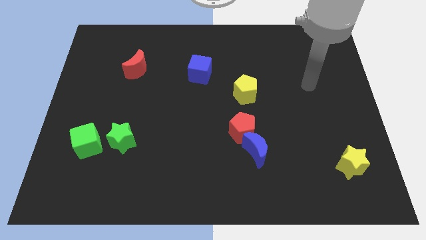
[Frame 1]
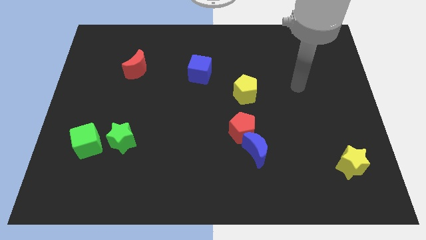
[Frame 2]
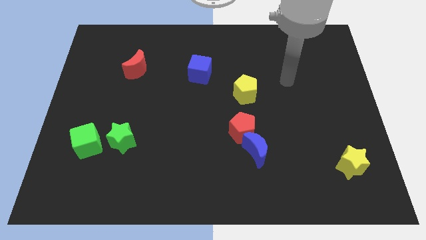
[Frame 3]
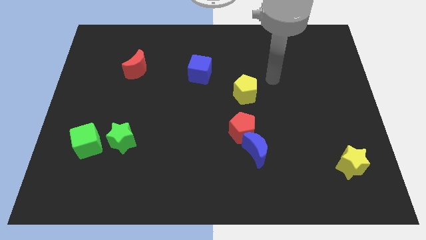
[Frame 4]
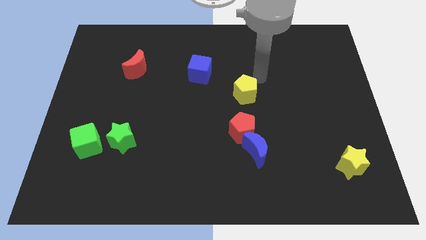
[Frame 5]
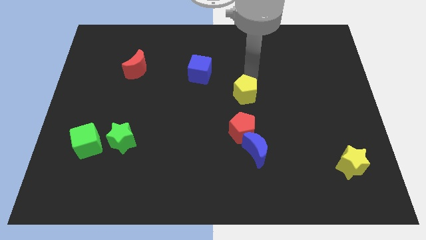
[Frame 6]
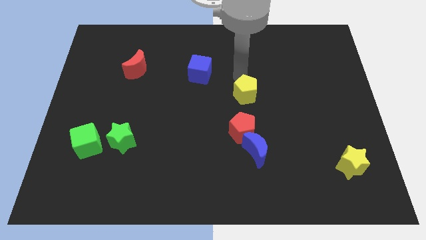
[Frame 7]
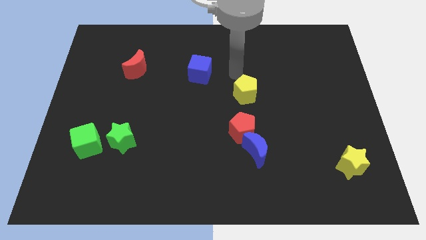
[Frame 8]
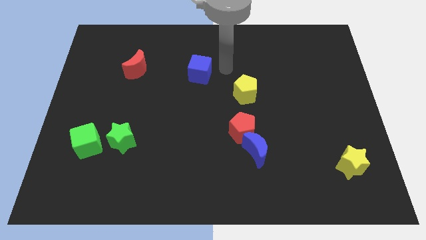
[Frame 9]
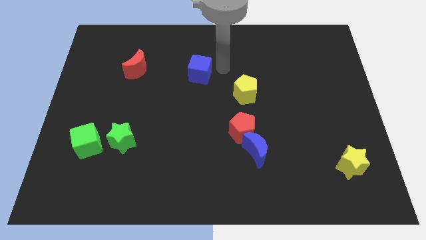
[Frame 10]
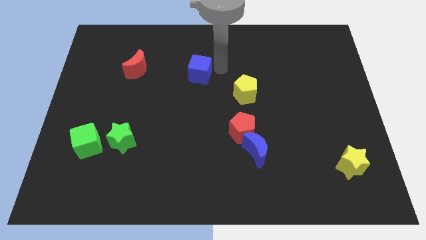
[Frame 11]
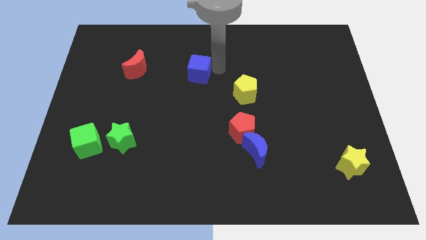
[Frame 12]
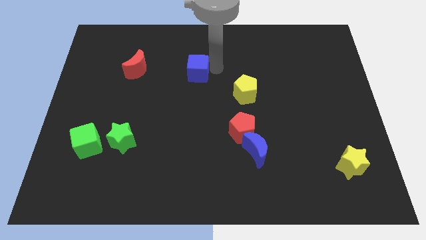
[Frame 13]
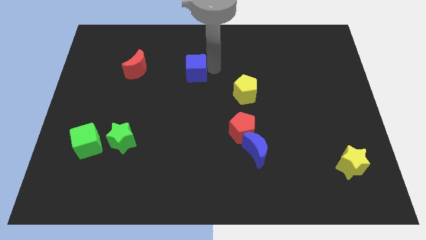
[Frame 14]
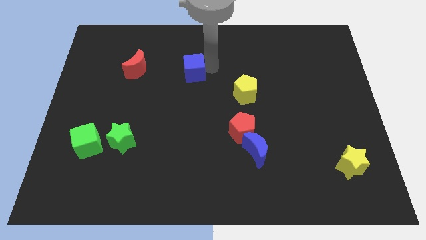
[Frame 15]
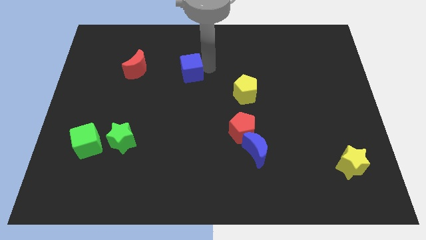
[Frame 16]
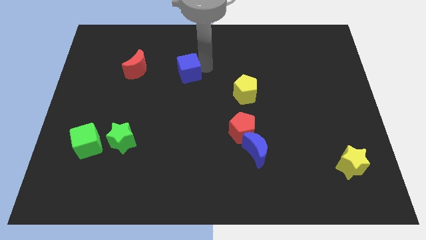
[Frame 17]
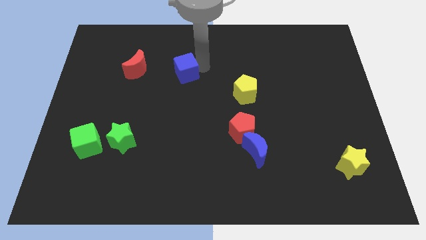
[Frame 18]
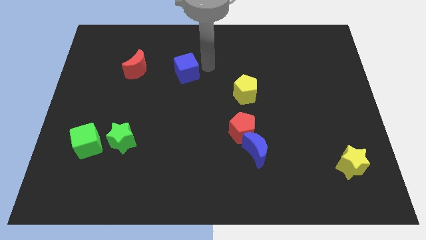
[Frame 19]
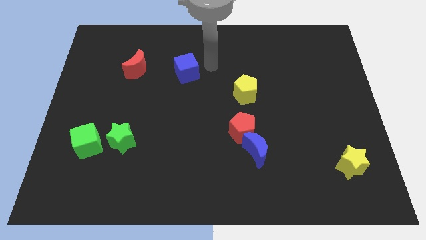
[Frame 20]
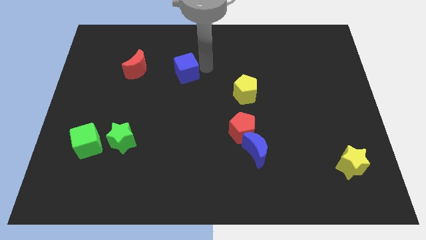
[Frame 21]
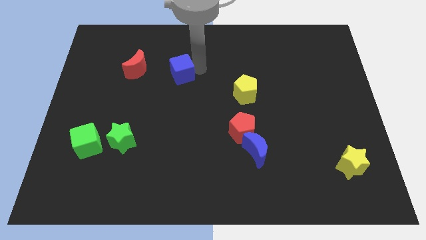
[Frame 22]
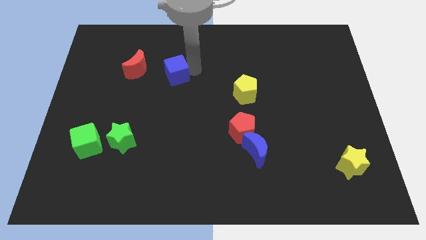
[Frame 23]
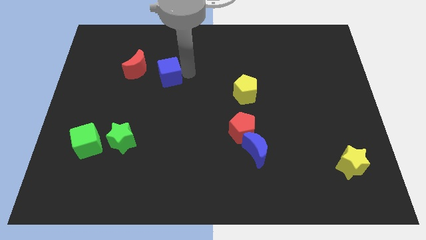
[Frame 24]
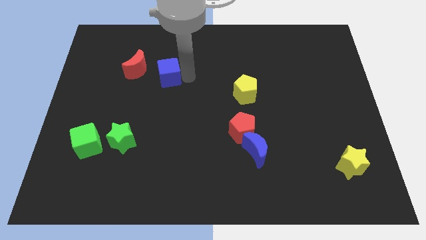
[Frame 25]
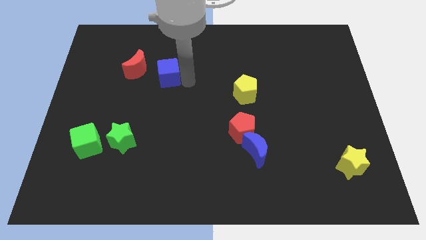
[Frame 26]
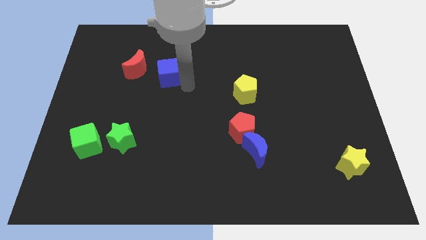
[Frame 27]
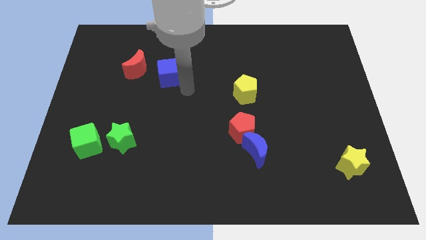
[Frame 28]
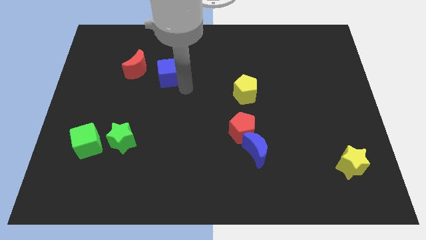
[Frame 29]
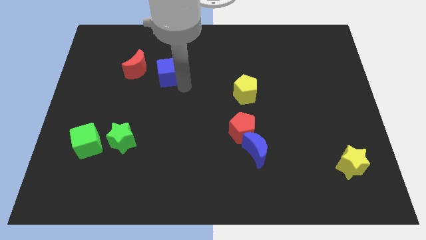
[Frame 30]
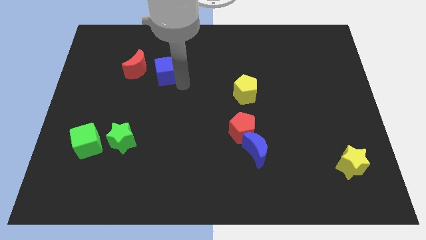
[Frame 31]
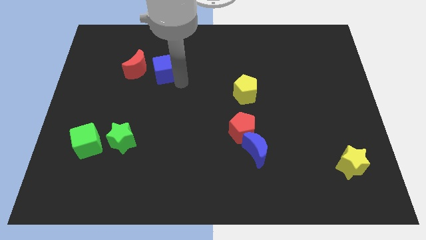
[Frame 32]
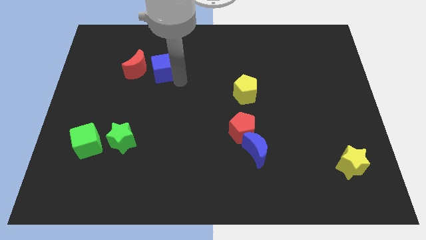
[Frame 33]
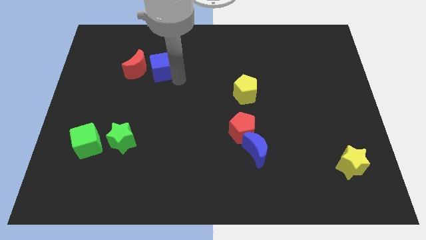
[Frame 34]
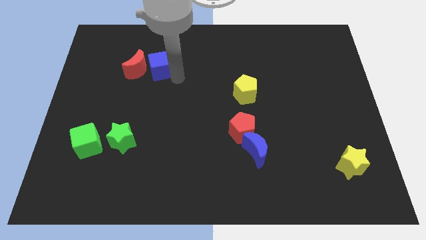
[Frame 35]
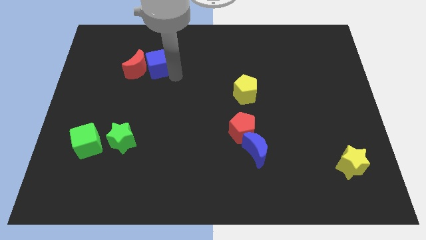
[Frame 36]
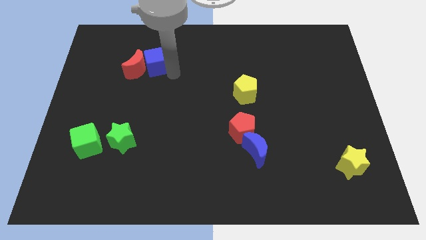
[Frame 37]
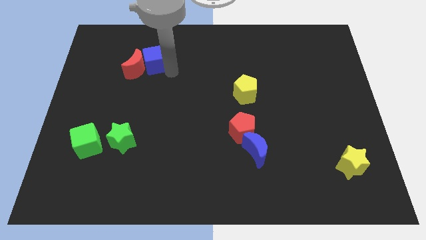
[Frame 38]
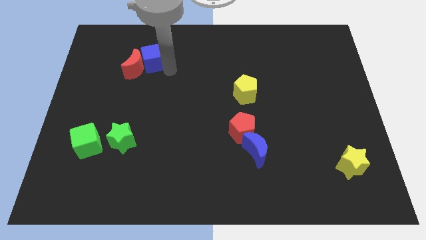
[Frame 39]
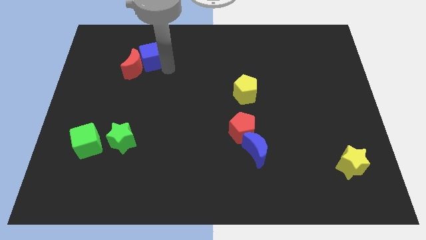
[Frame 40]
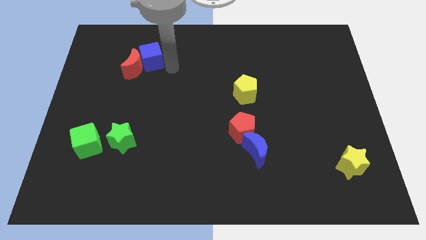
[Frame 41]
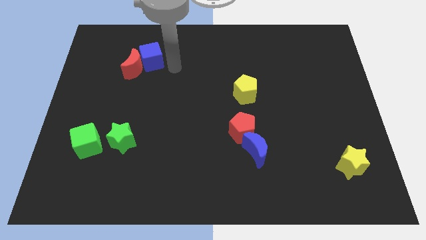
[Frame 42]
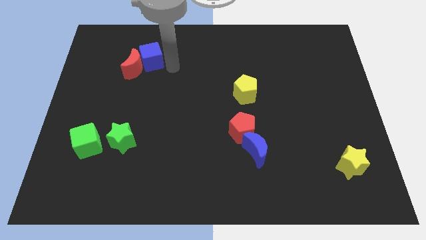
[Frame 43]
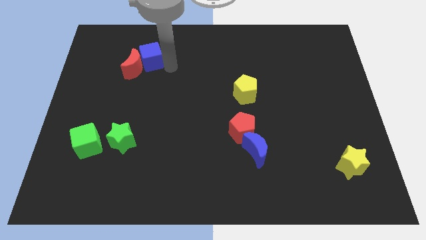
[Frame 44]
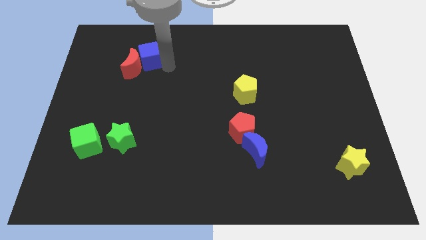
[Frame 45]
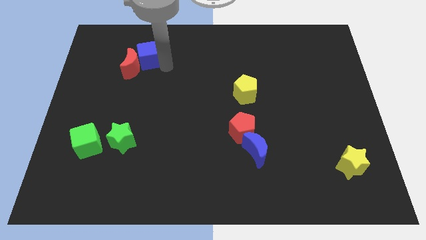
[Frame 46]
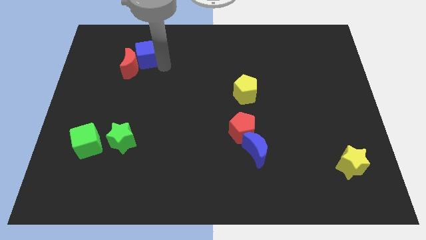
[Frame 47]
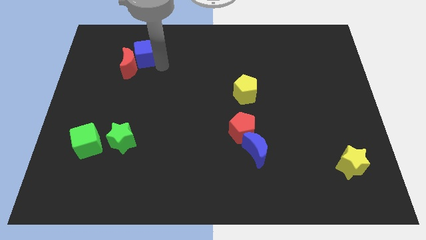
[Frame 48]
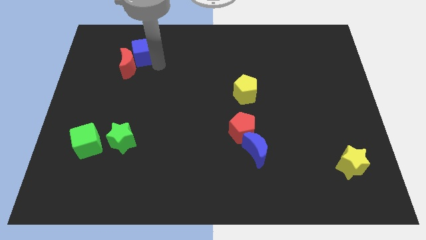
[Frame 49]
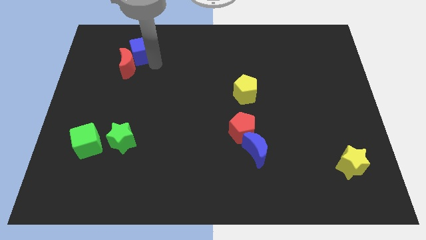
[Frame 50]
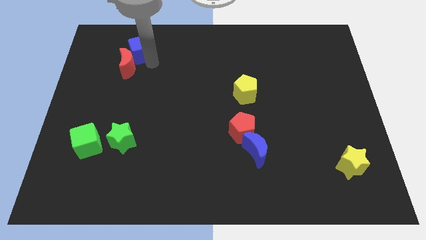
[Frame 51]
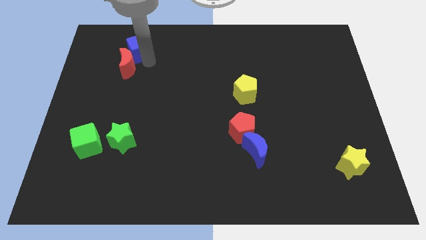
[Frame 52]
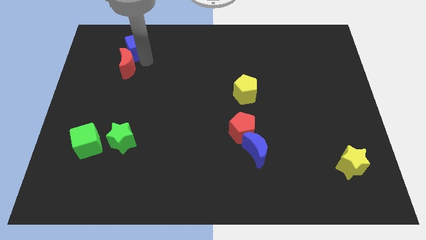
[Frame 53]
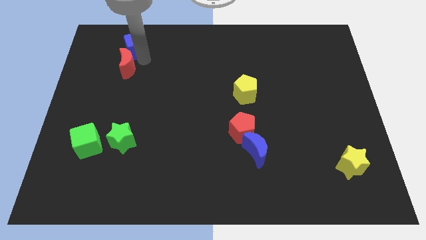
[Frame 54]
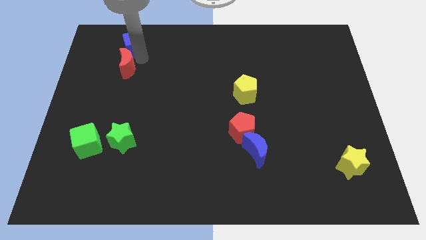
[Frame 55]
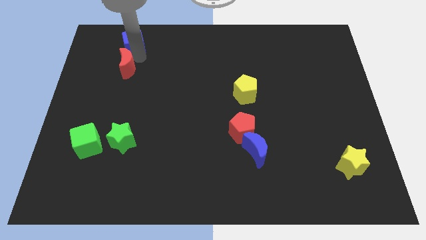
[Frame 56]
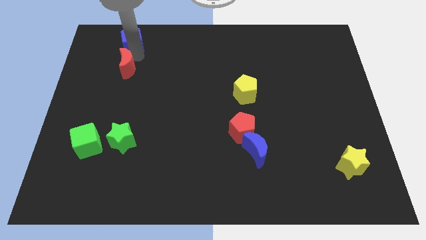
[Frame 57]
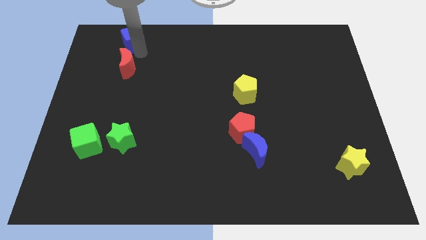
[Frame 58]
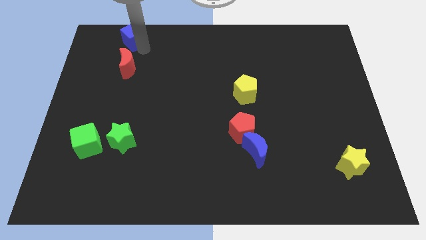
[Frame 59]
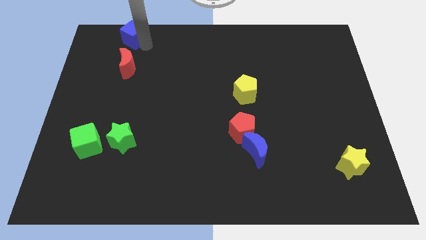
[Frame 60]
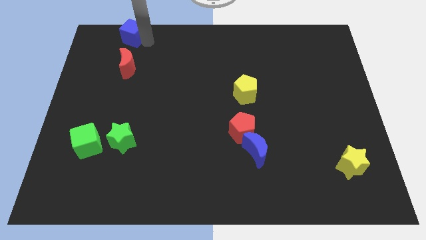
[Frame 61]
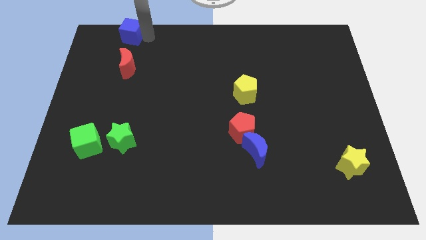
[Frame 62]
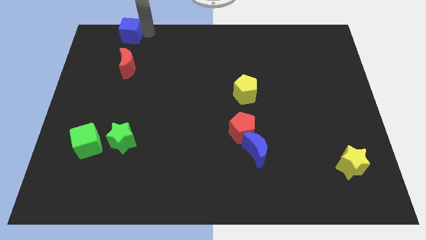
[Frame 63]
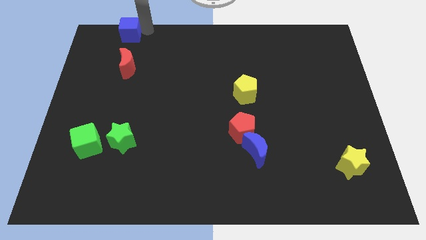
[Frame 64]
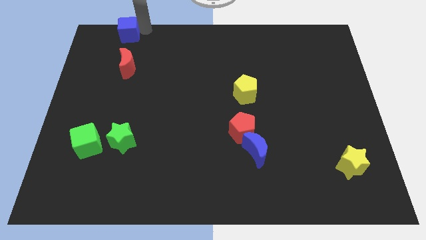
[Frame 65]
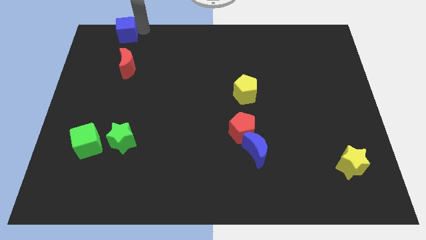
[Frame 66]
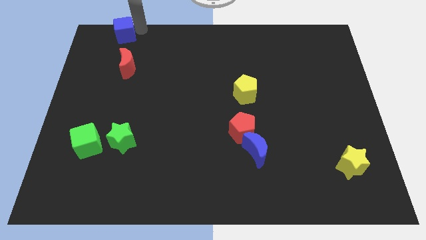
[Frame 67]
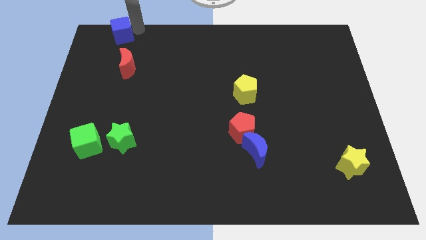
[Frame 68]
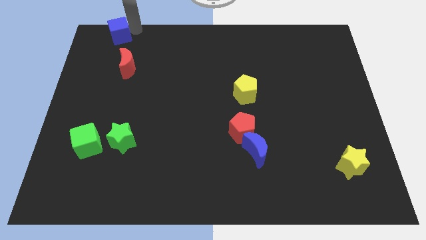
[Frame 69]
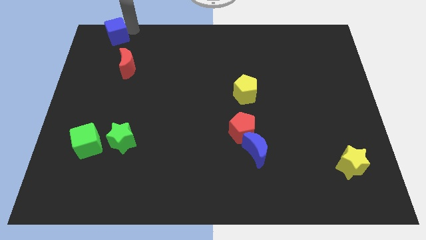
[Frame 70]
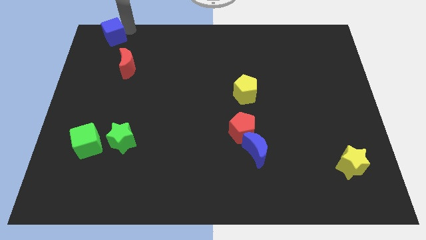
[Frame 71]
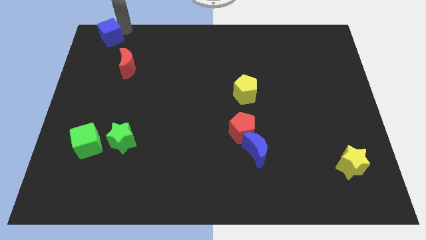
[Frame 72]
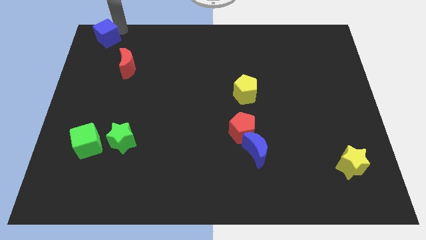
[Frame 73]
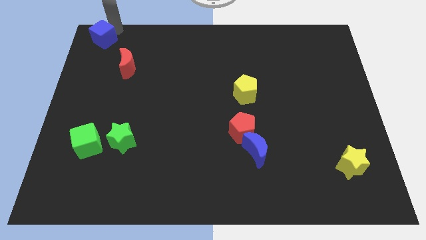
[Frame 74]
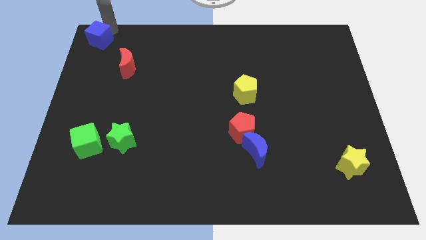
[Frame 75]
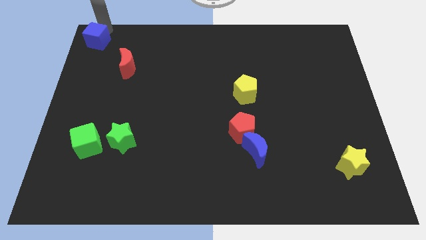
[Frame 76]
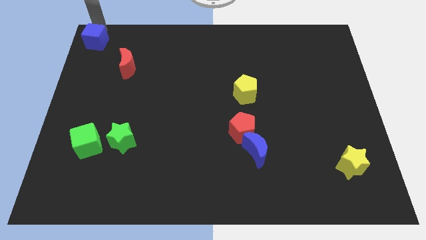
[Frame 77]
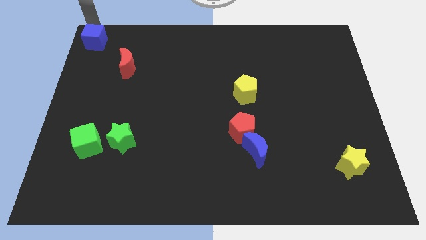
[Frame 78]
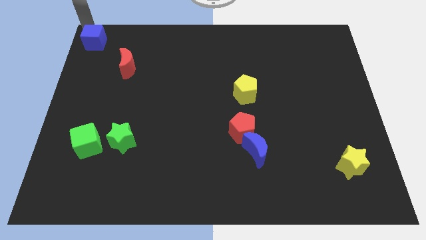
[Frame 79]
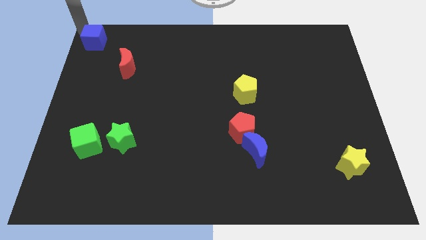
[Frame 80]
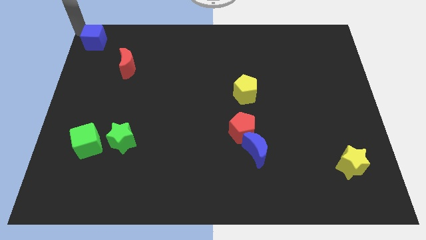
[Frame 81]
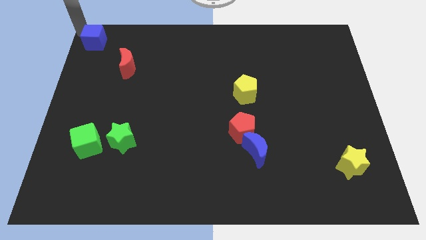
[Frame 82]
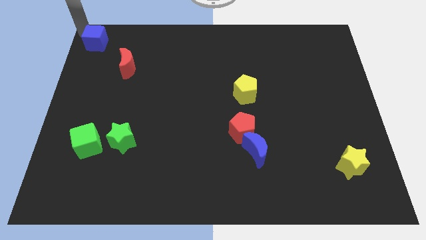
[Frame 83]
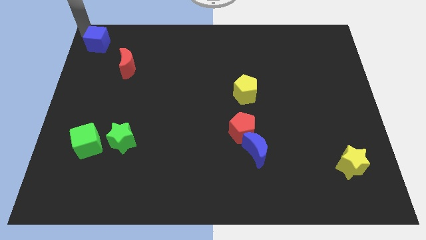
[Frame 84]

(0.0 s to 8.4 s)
move the blue cube to the top left of the red moon
